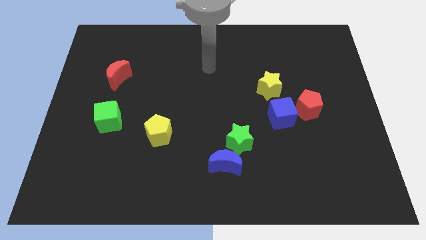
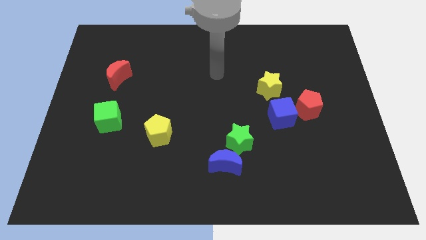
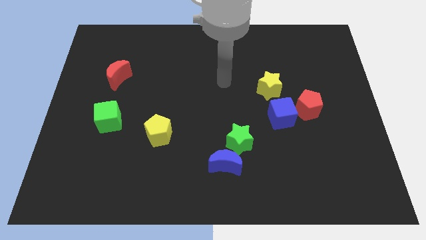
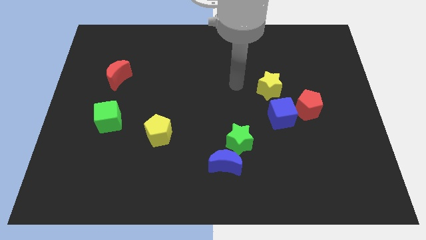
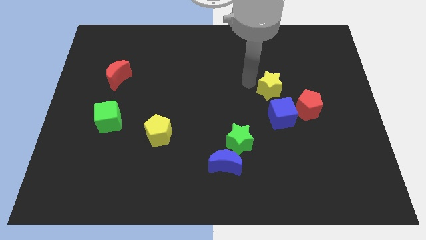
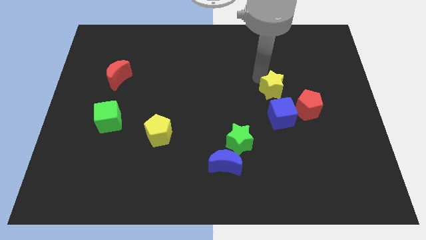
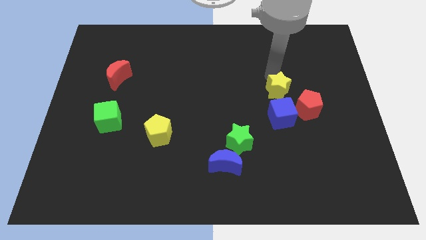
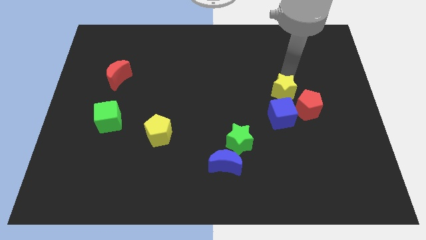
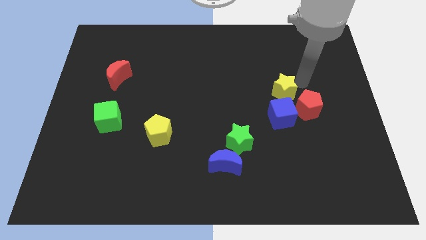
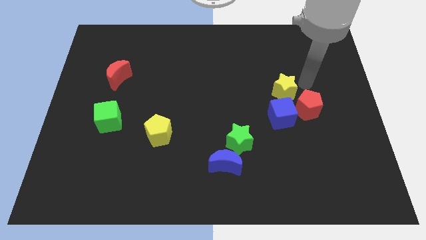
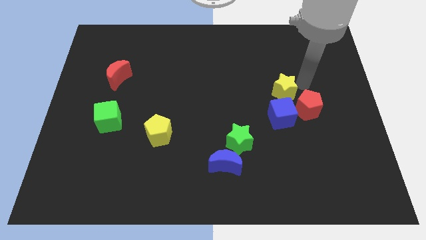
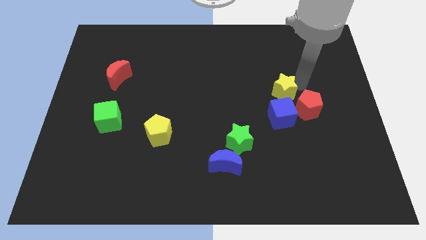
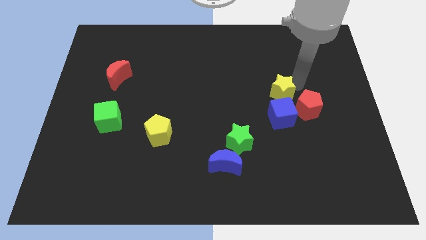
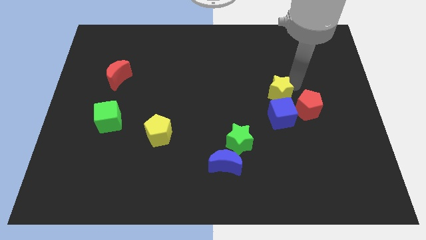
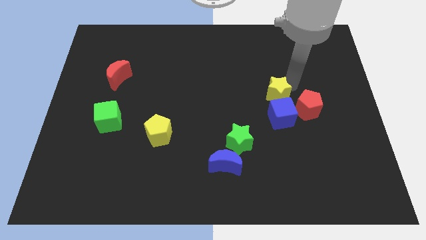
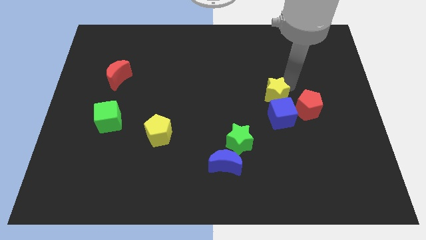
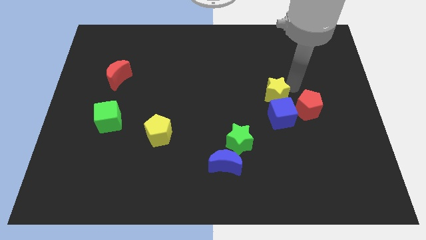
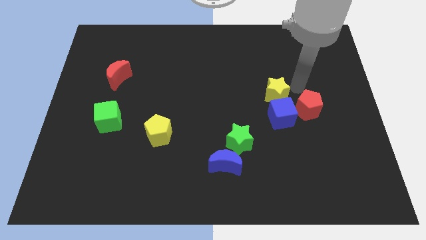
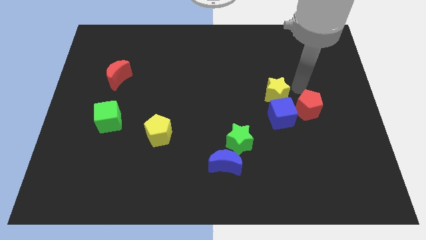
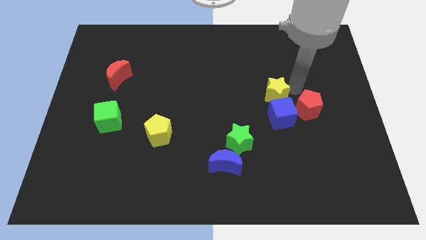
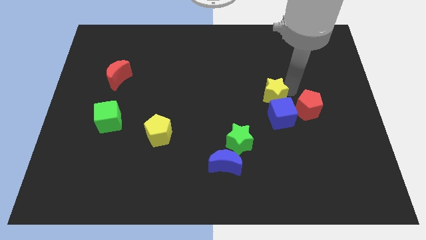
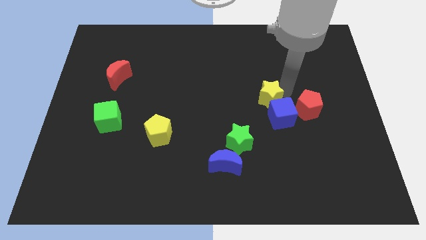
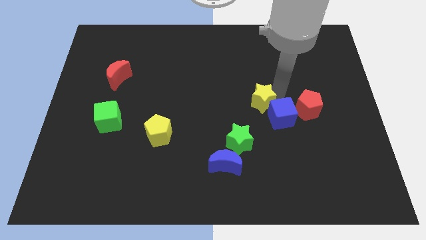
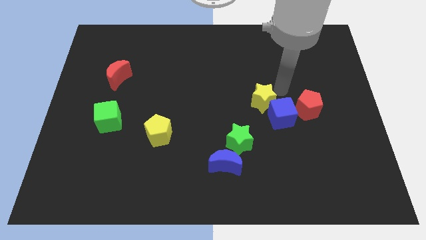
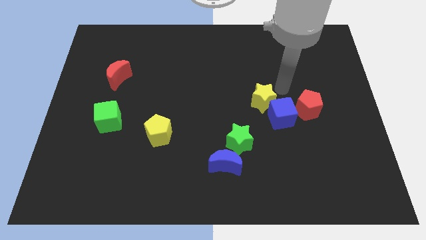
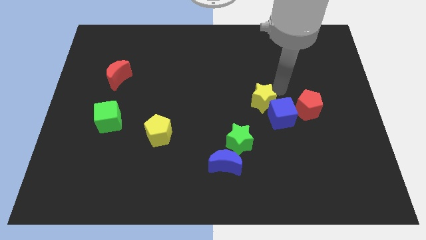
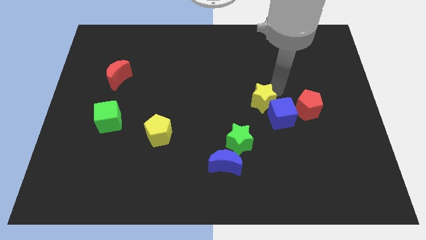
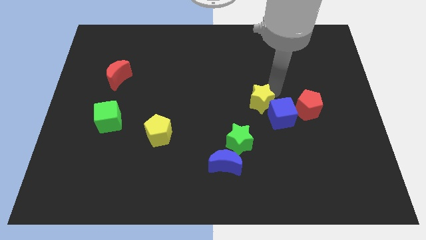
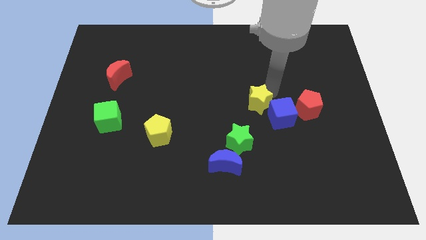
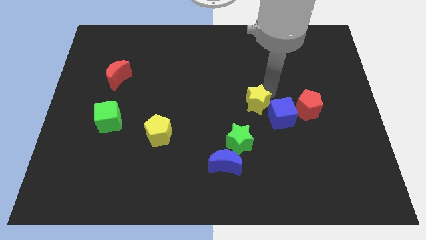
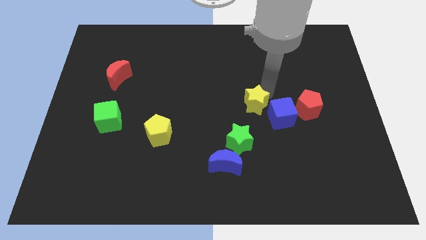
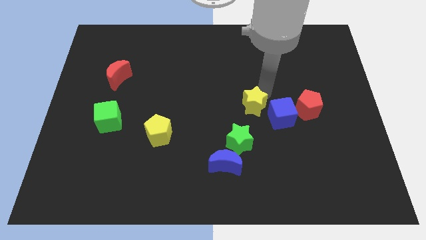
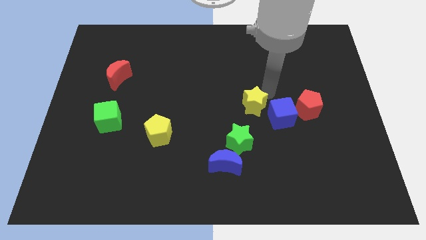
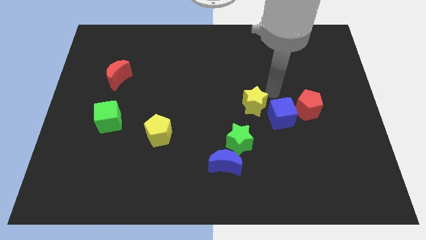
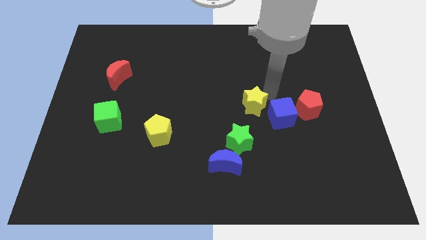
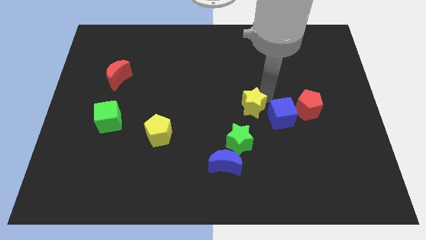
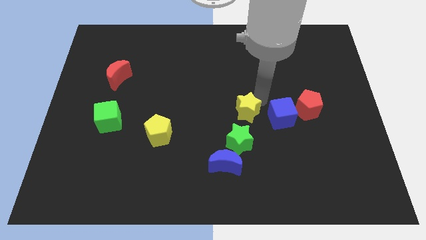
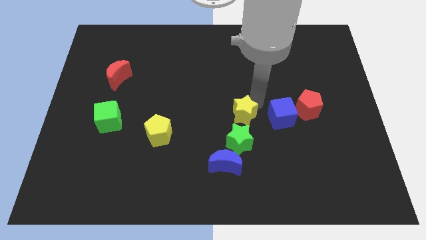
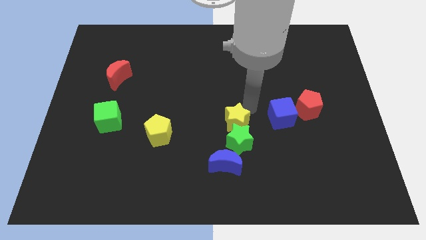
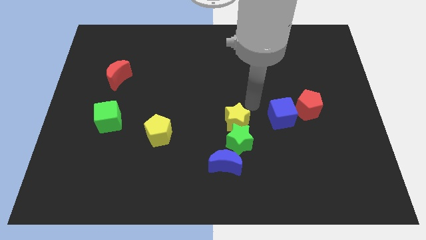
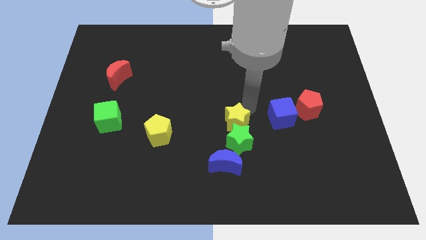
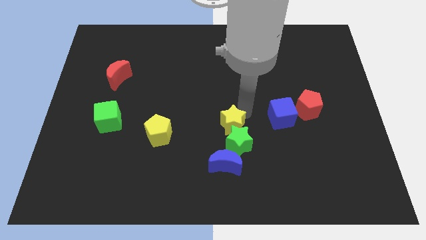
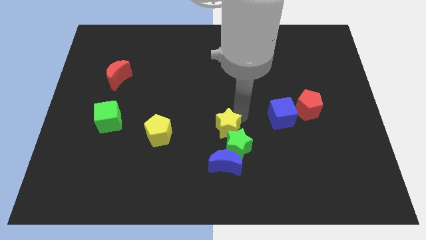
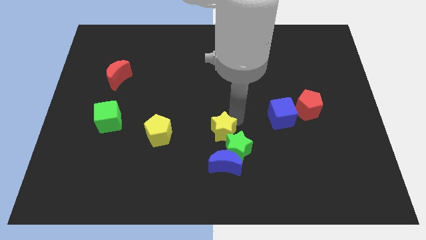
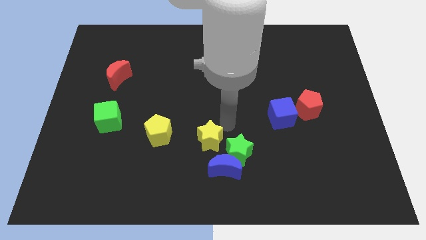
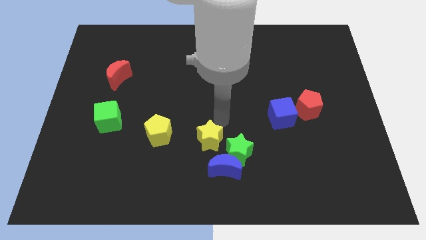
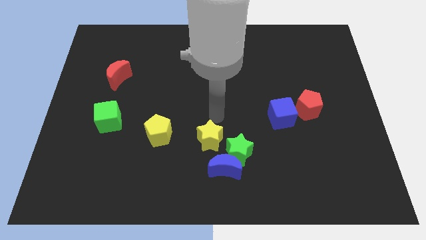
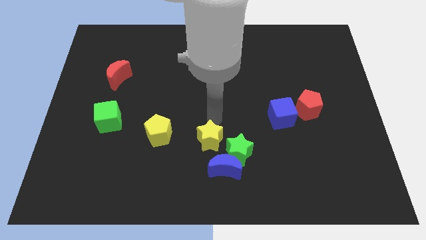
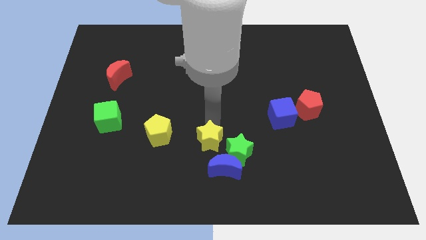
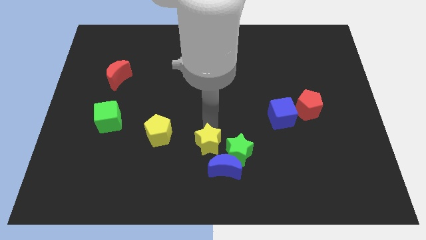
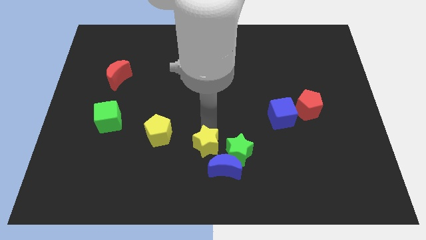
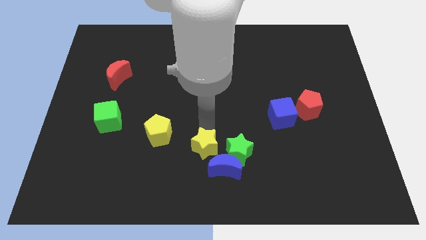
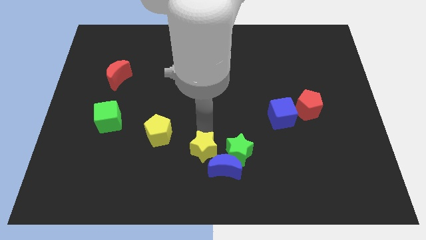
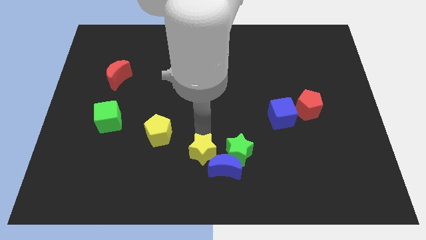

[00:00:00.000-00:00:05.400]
push the yellow star to the bottom side

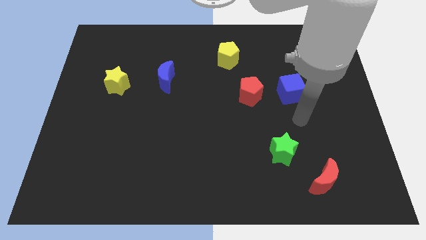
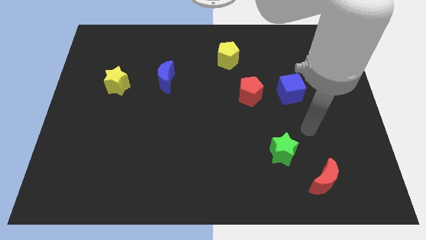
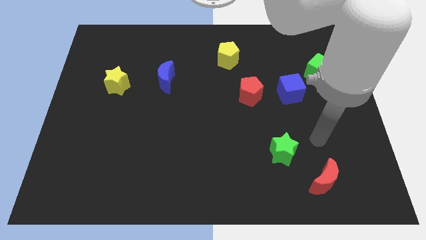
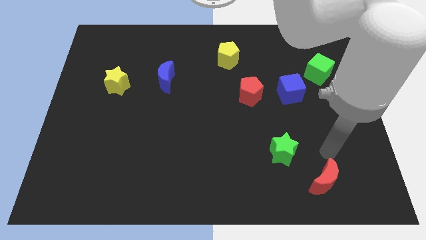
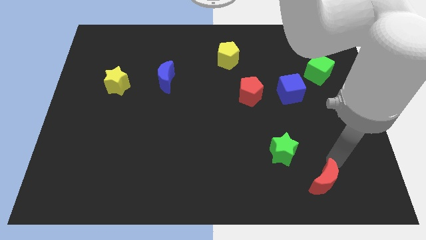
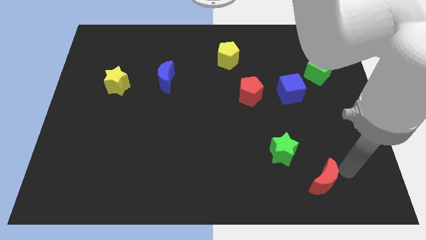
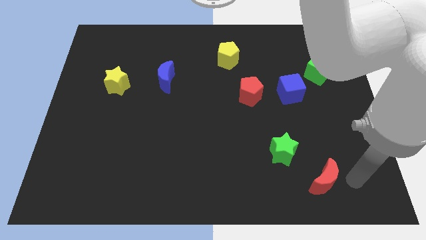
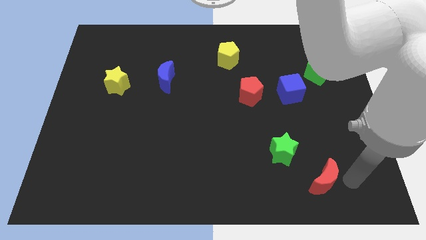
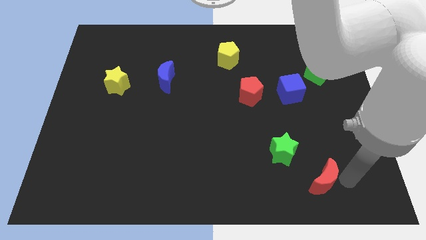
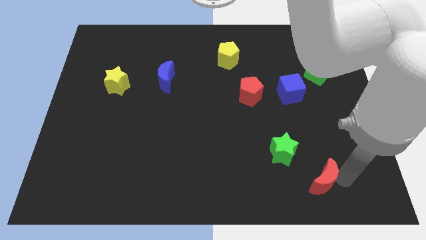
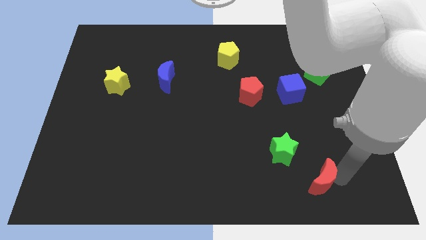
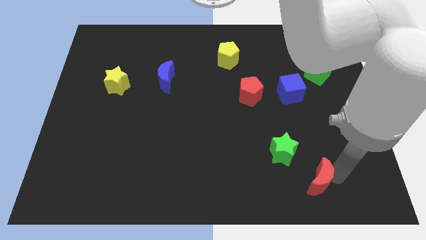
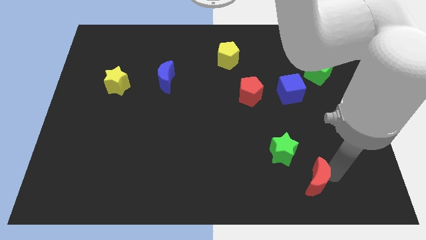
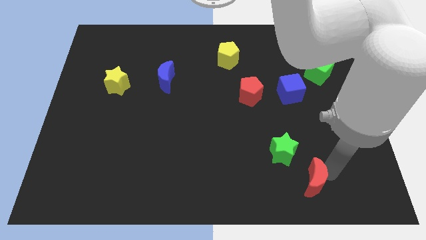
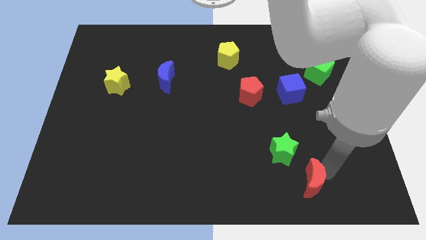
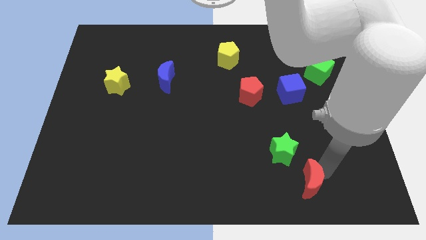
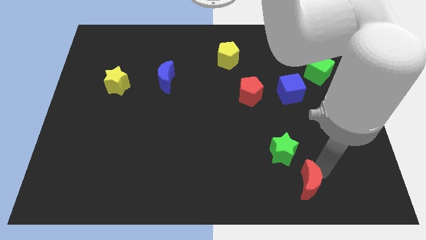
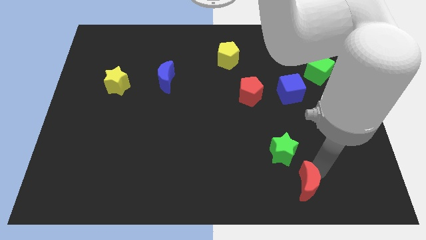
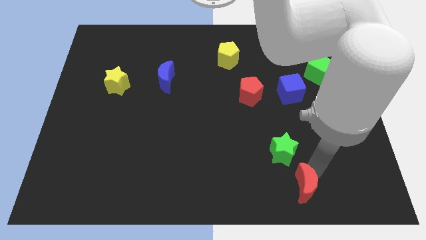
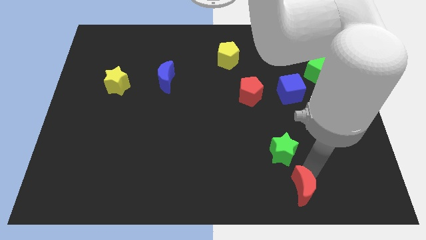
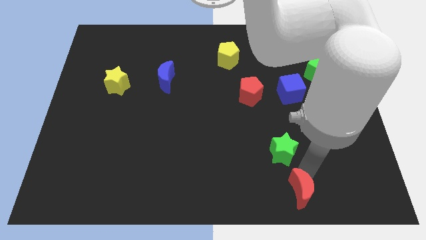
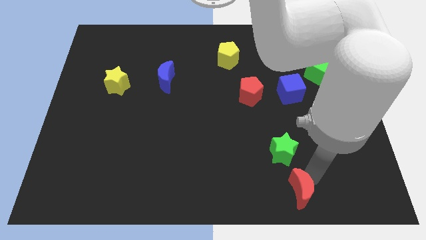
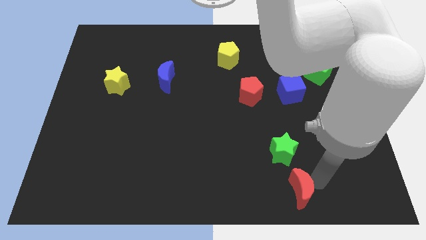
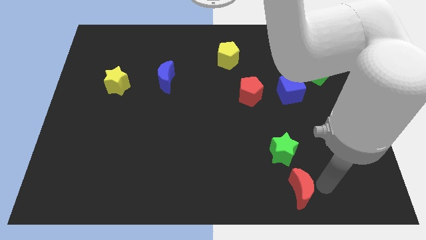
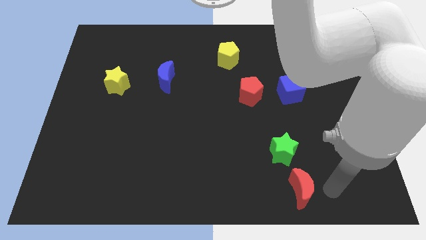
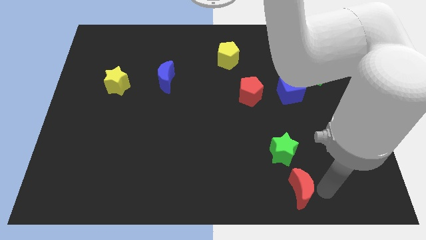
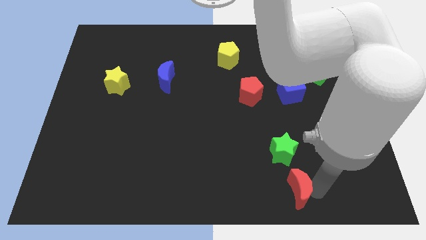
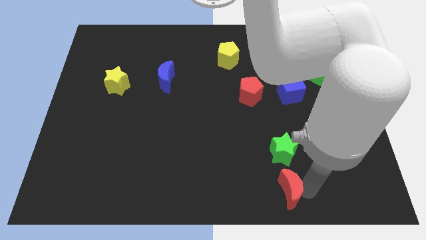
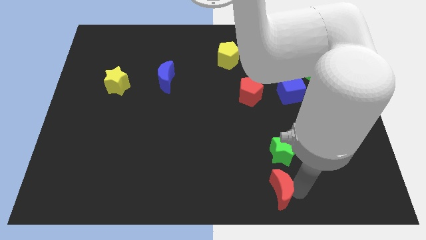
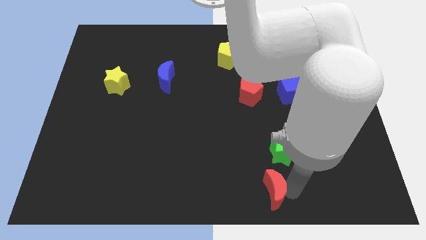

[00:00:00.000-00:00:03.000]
put the red moon to the bottom side
